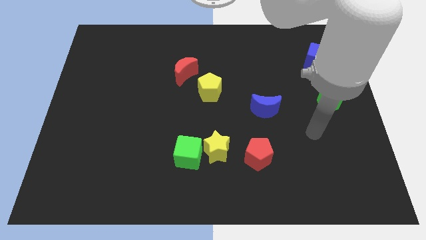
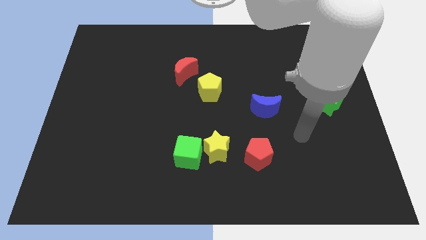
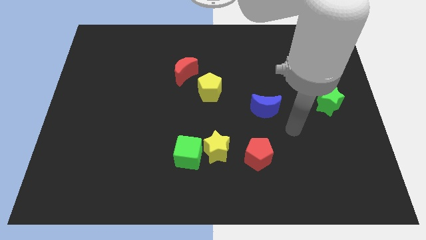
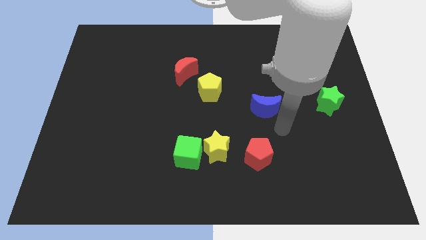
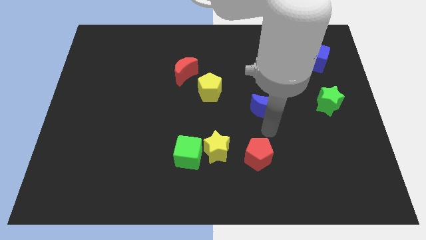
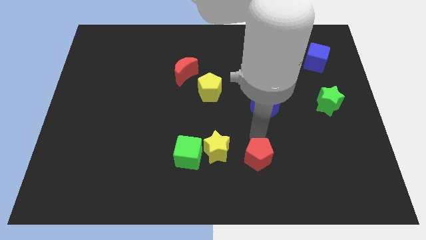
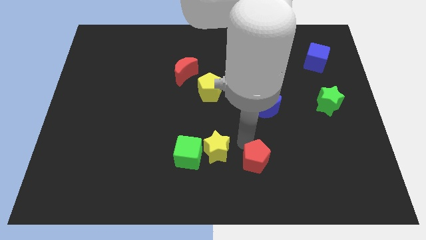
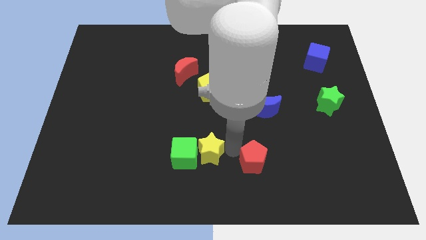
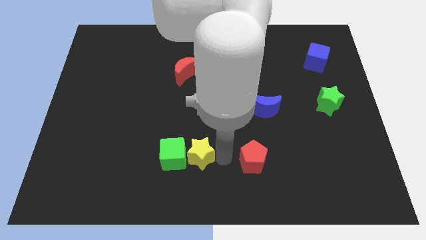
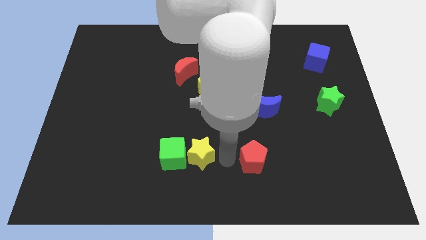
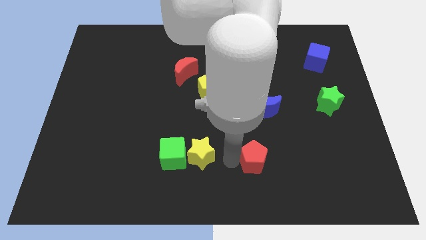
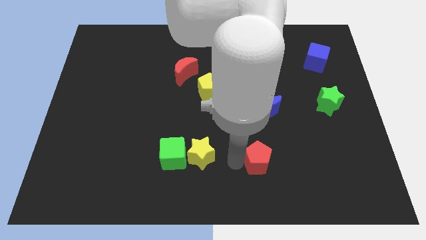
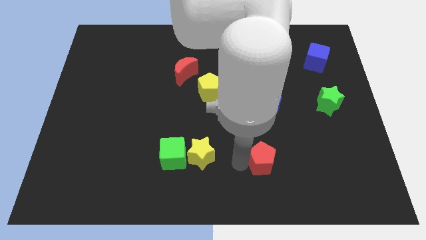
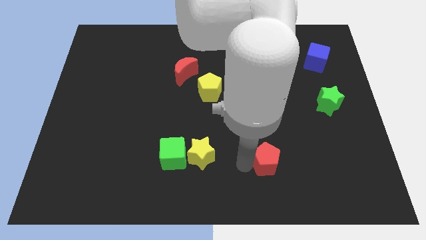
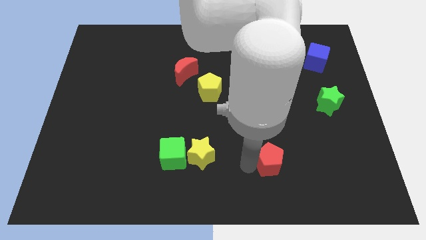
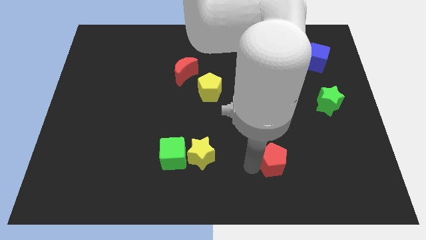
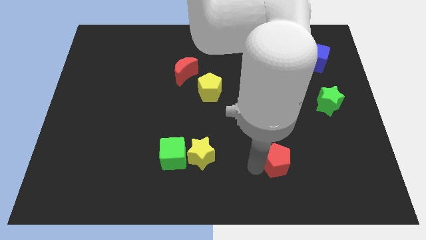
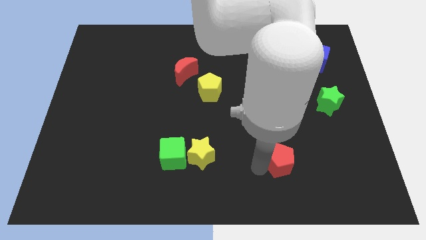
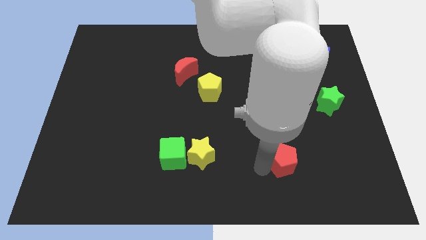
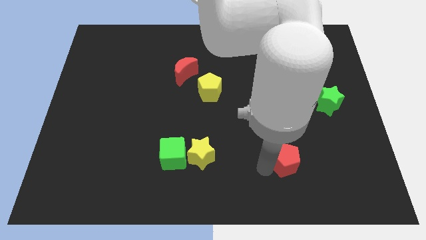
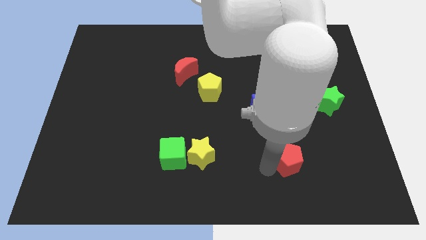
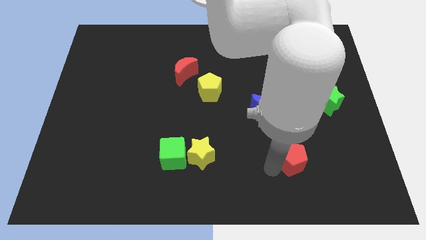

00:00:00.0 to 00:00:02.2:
move the red pentagon to the right somewhat

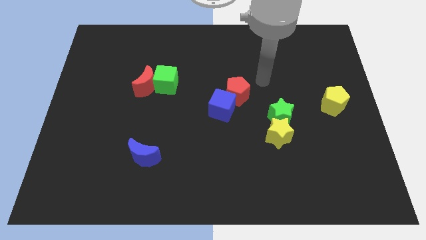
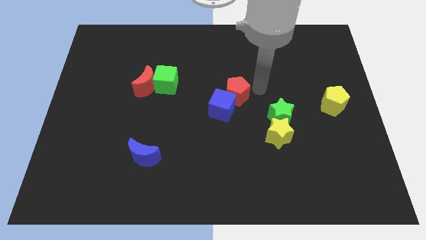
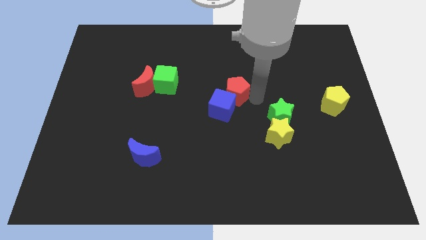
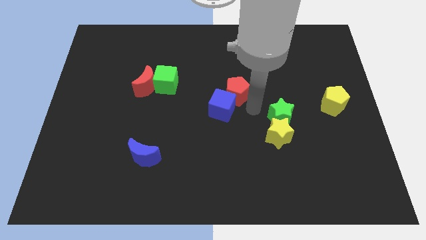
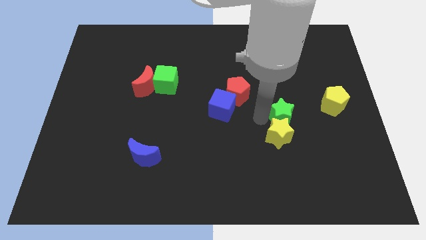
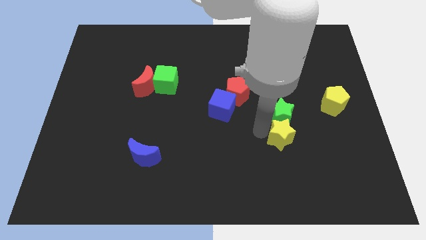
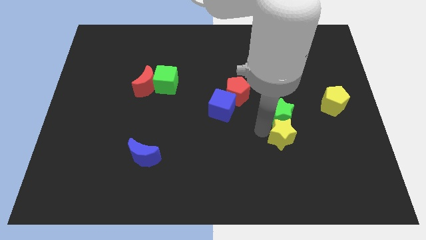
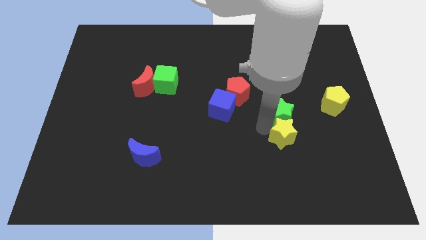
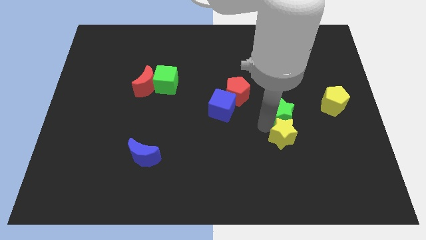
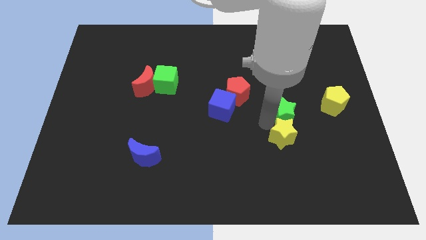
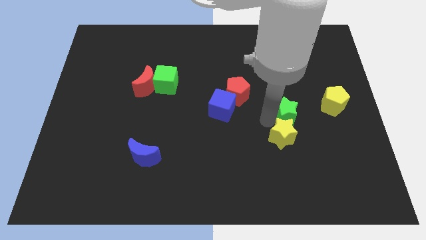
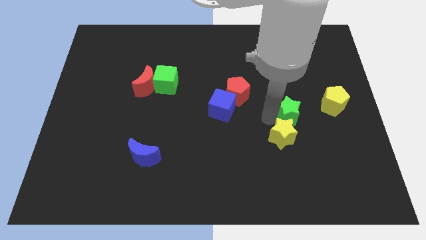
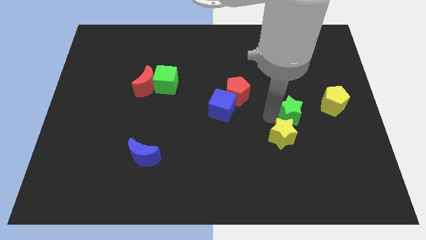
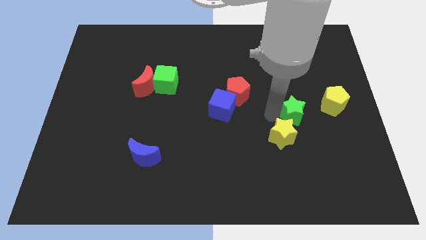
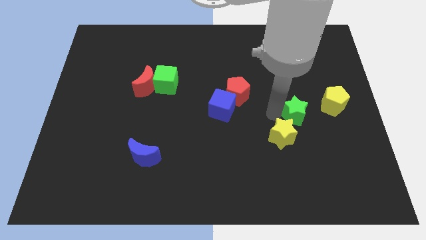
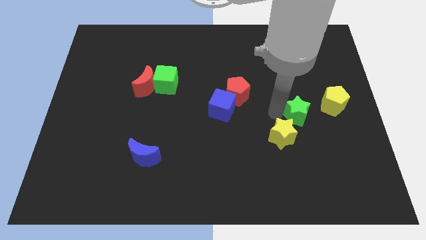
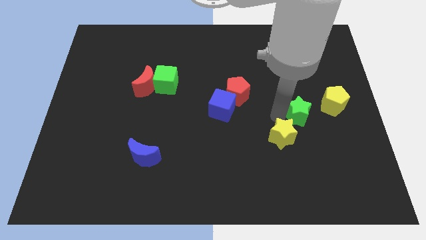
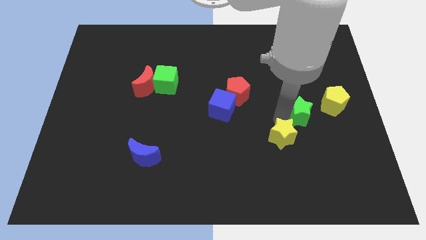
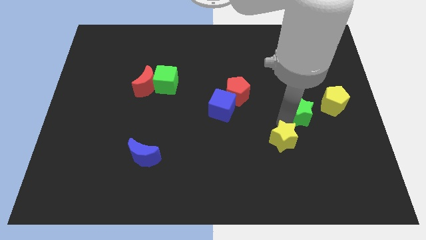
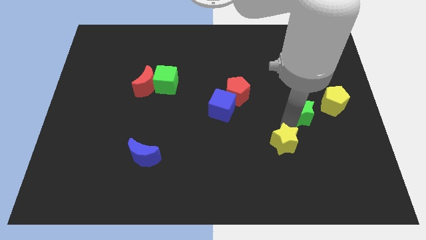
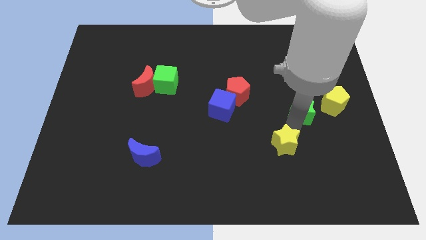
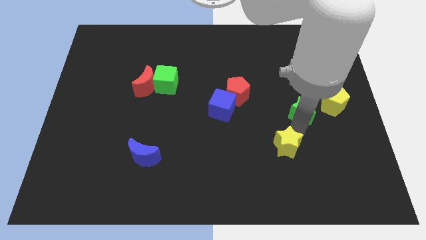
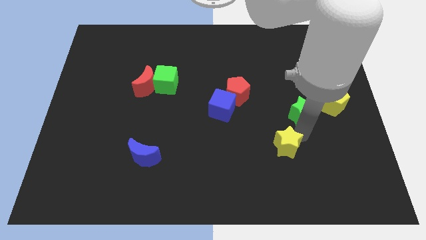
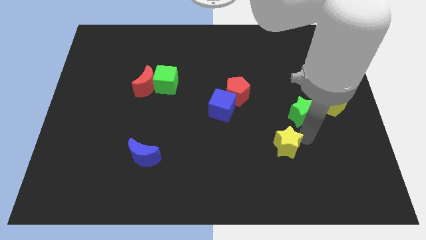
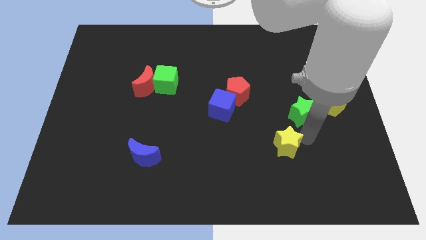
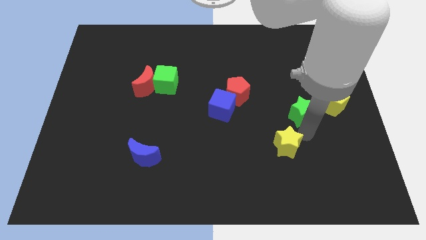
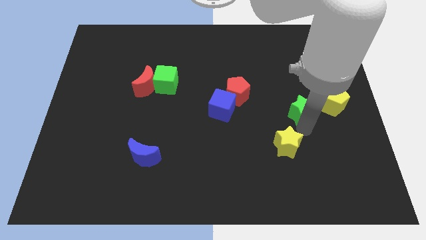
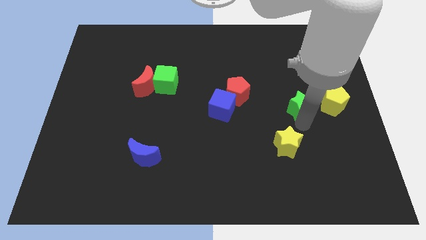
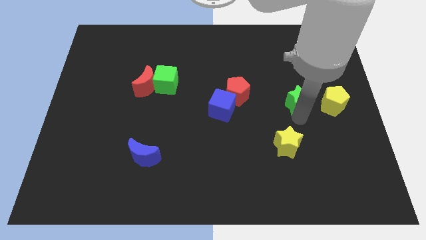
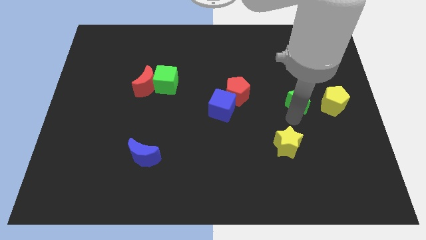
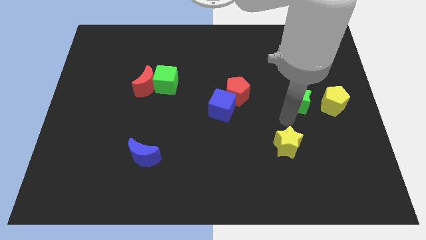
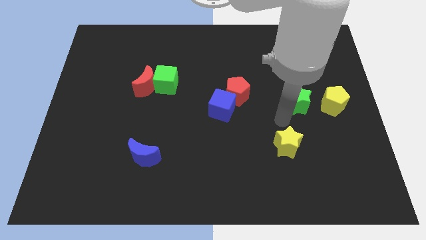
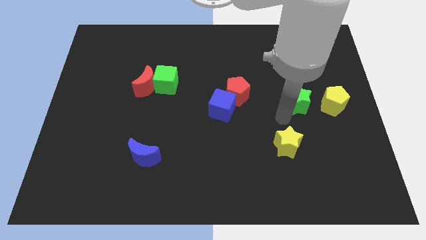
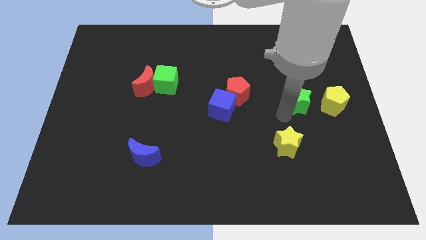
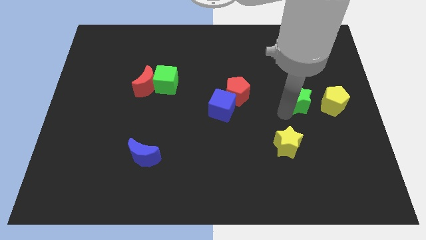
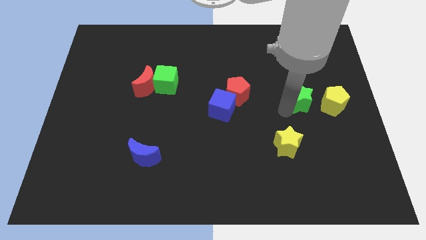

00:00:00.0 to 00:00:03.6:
slightly push the green star diagonally up and to the right

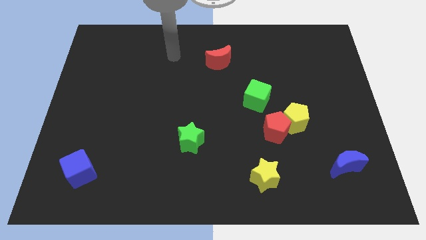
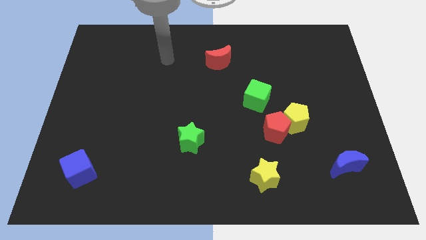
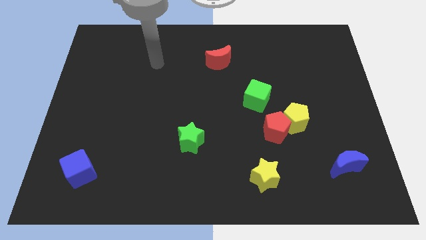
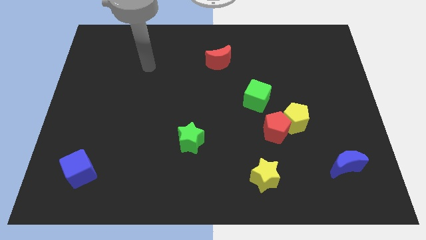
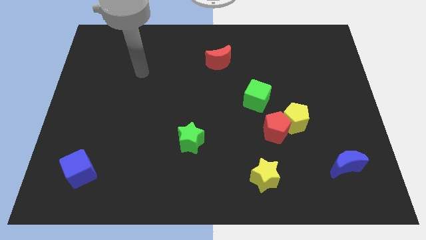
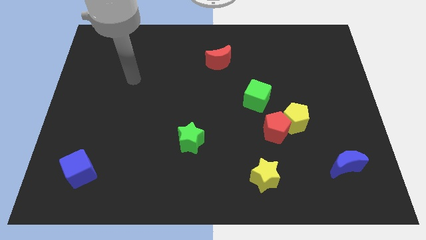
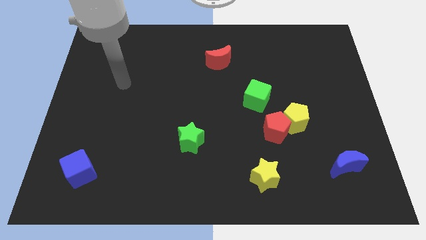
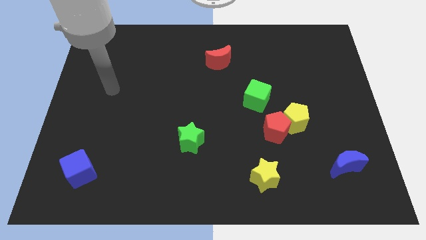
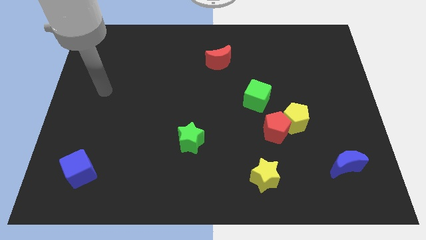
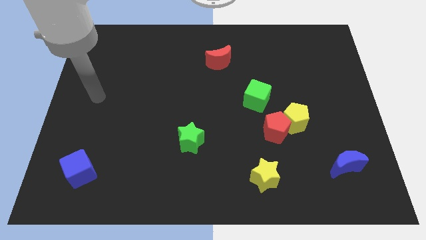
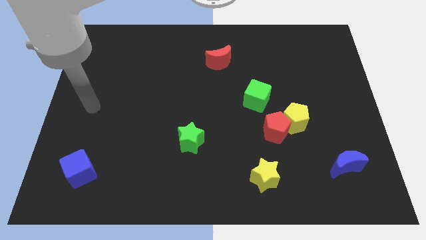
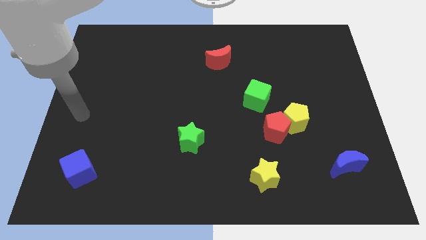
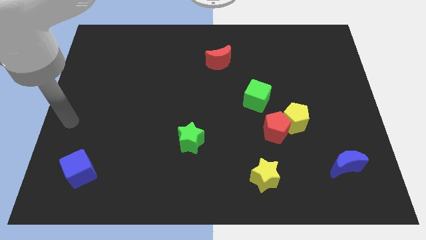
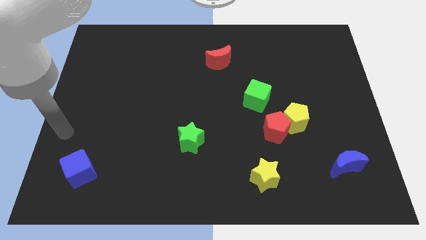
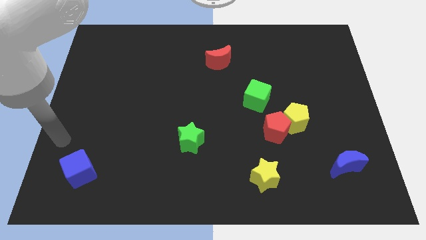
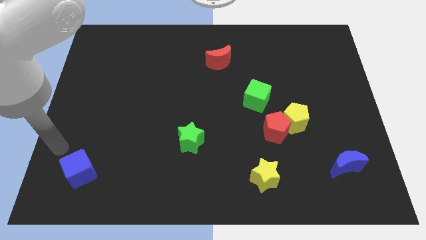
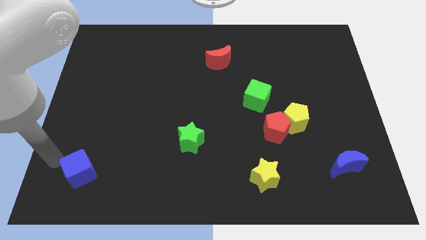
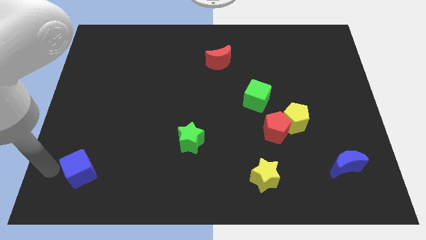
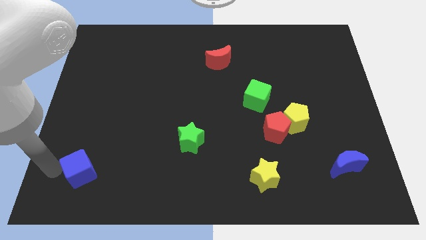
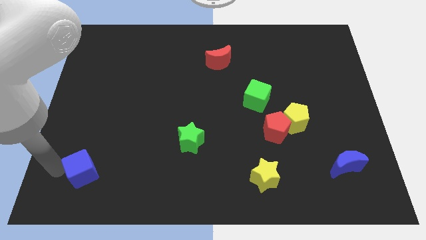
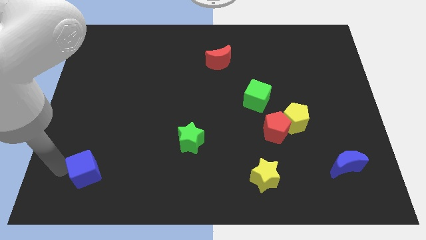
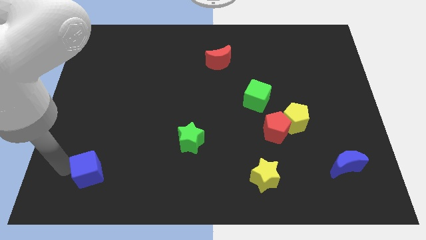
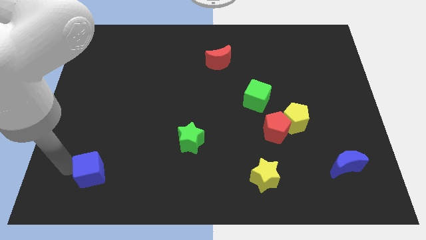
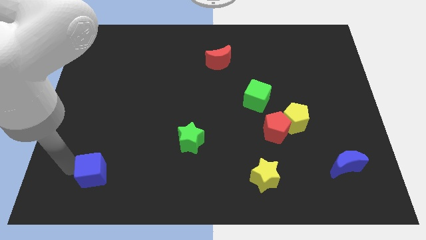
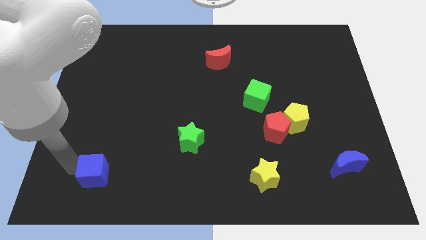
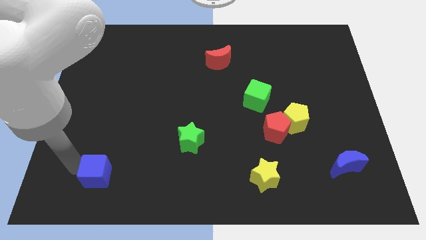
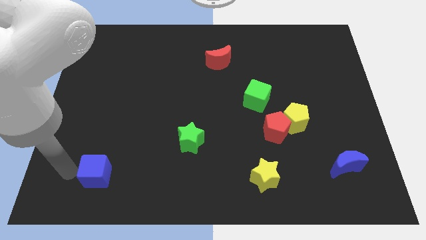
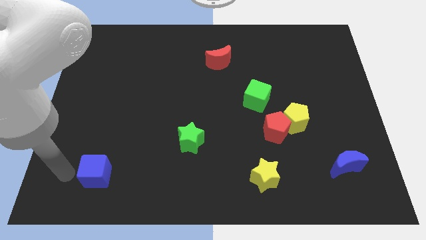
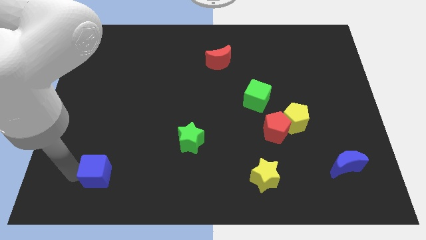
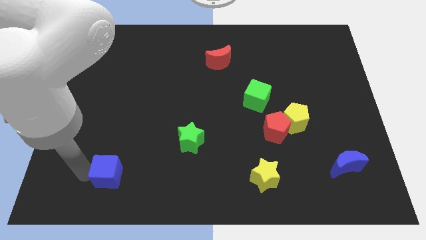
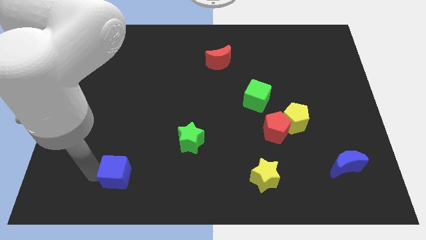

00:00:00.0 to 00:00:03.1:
push the blue cube right a bit
